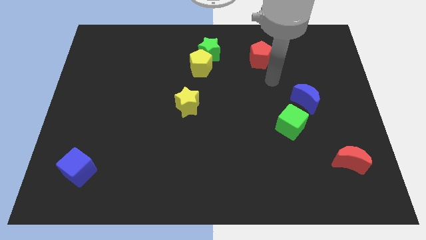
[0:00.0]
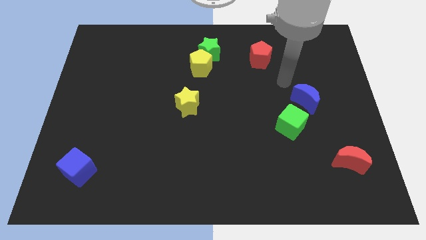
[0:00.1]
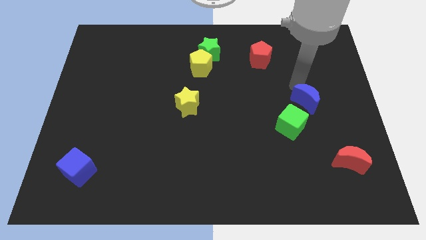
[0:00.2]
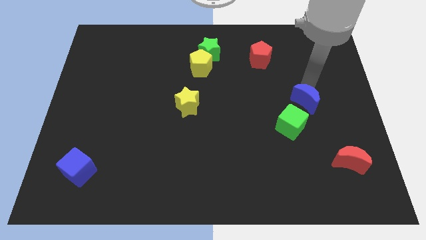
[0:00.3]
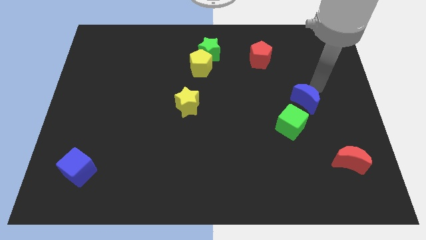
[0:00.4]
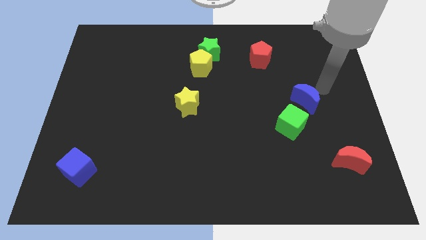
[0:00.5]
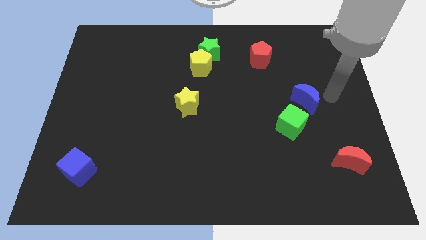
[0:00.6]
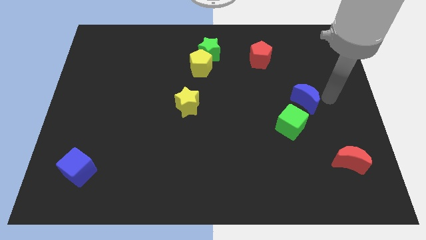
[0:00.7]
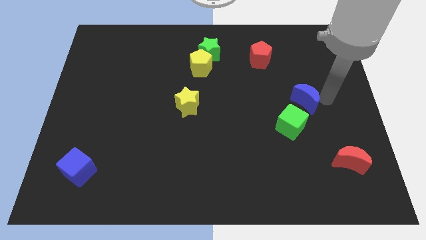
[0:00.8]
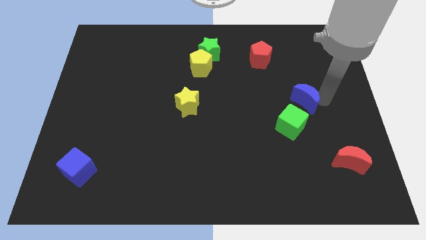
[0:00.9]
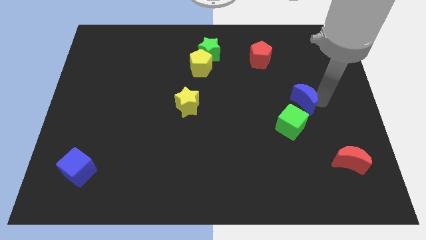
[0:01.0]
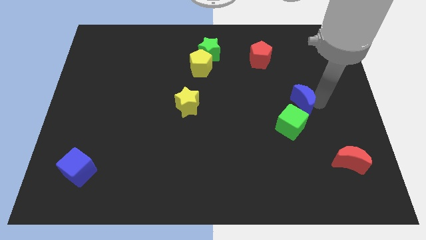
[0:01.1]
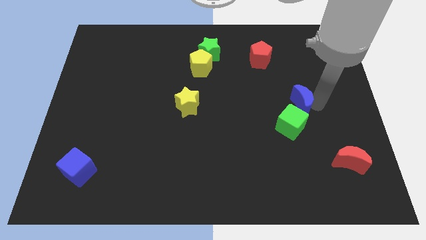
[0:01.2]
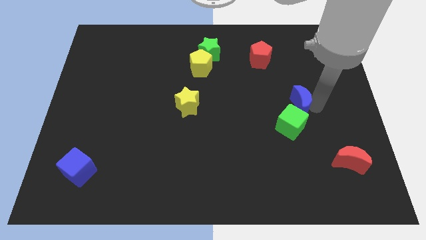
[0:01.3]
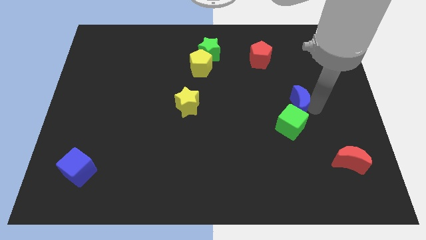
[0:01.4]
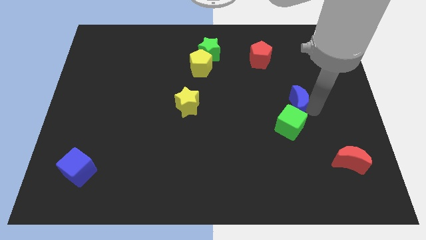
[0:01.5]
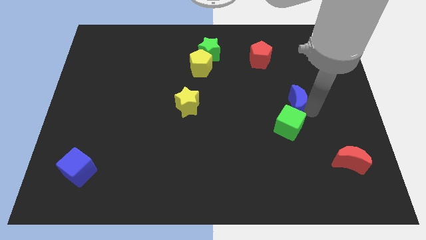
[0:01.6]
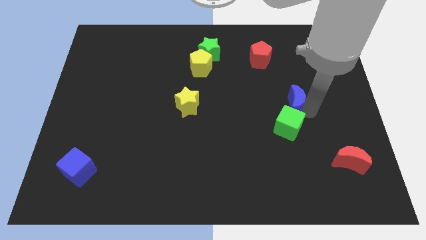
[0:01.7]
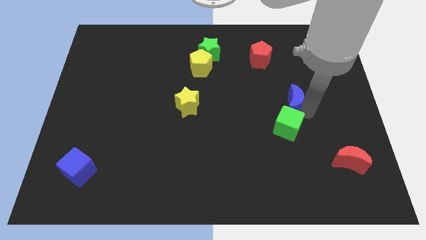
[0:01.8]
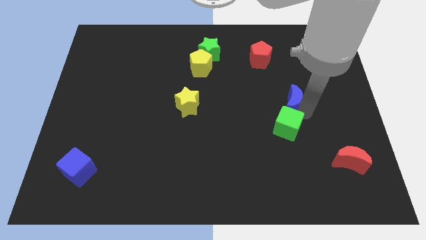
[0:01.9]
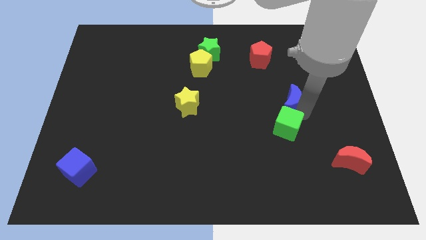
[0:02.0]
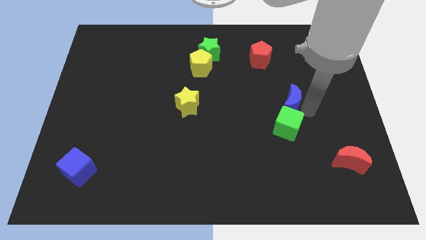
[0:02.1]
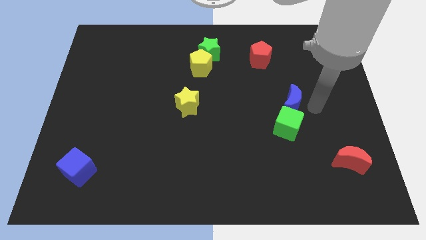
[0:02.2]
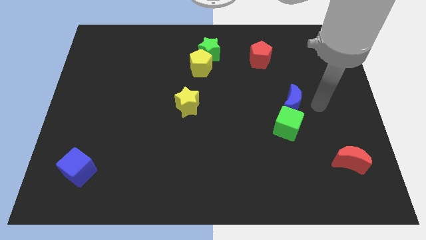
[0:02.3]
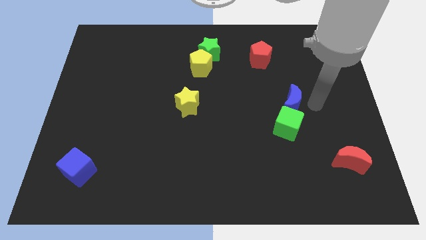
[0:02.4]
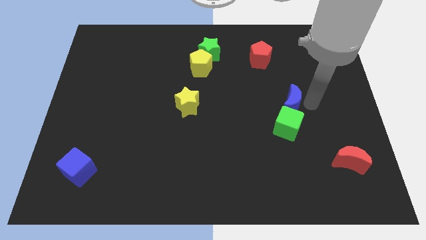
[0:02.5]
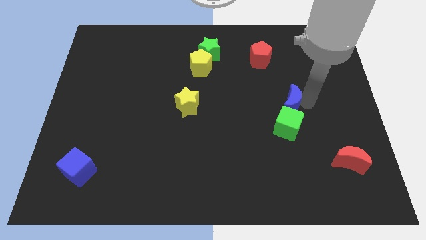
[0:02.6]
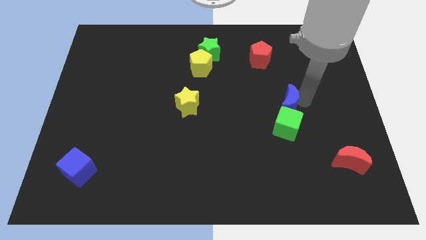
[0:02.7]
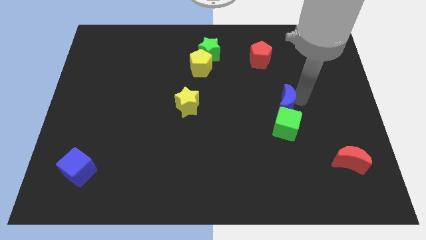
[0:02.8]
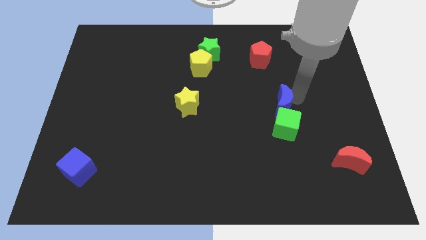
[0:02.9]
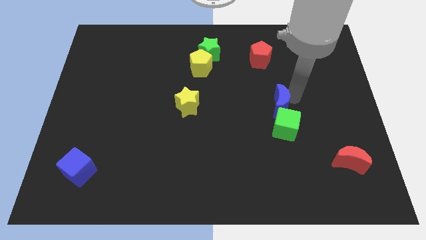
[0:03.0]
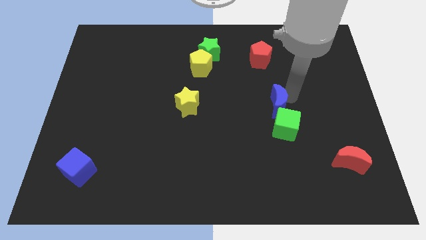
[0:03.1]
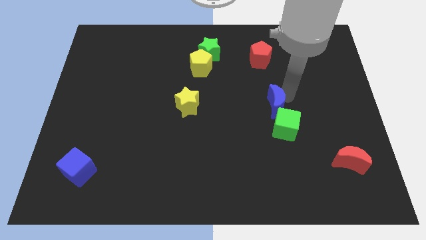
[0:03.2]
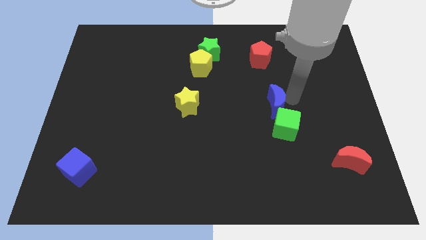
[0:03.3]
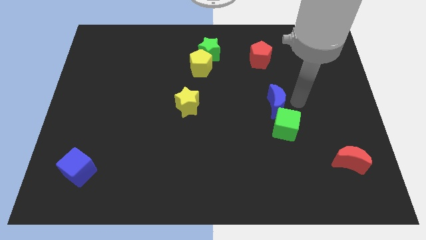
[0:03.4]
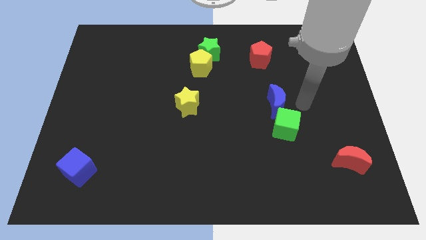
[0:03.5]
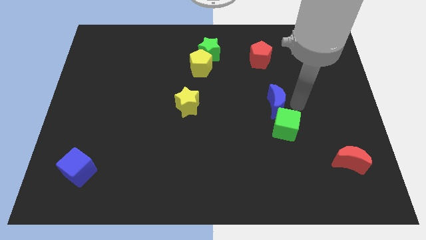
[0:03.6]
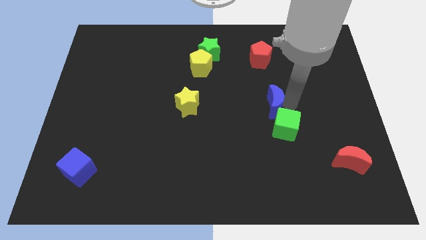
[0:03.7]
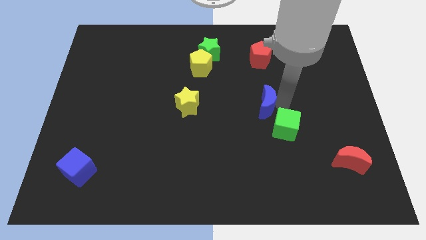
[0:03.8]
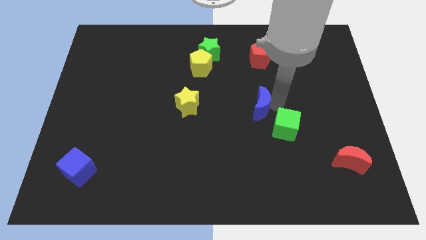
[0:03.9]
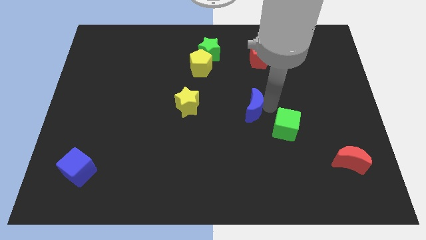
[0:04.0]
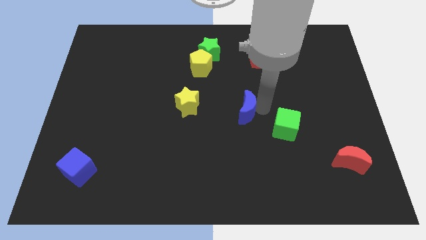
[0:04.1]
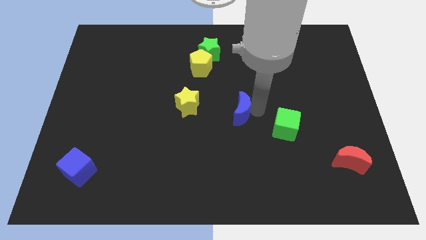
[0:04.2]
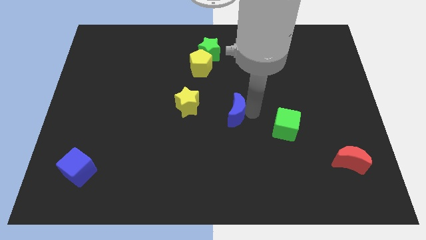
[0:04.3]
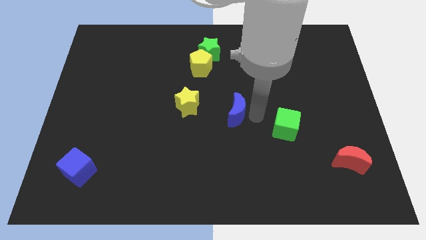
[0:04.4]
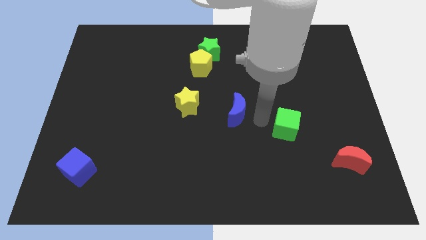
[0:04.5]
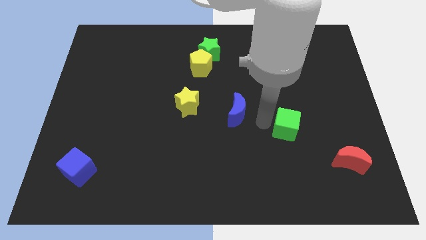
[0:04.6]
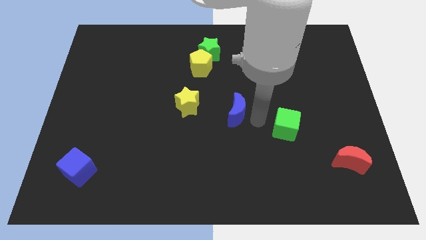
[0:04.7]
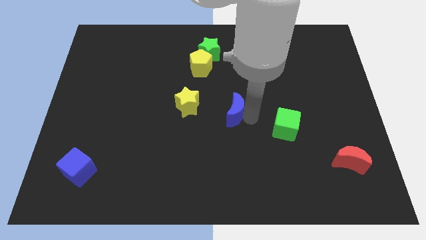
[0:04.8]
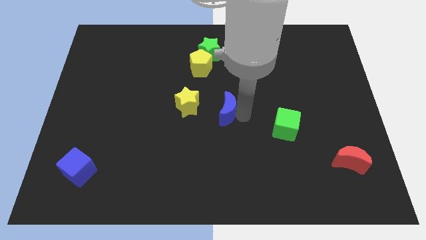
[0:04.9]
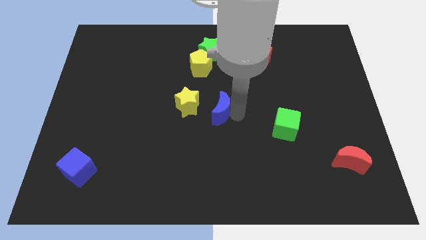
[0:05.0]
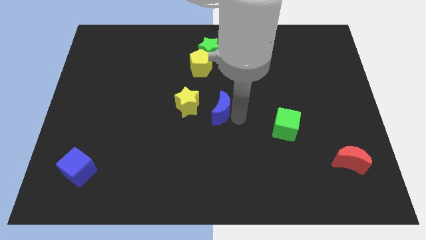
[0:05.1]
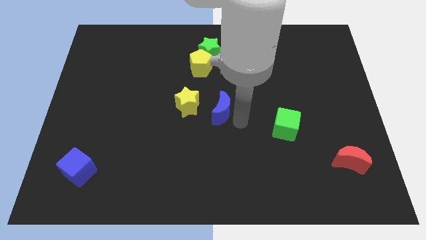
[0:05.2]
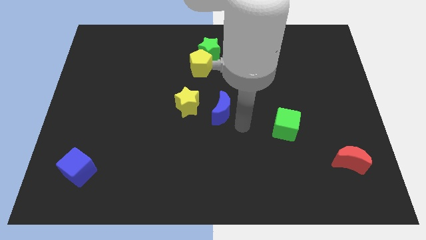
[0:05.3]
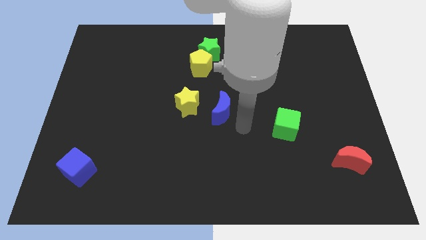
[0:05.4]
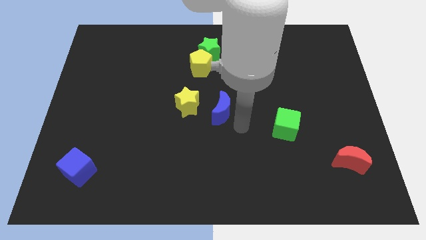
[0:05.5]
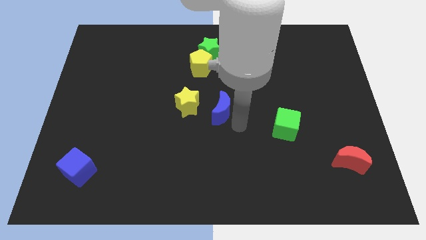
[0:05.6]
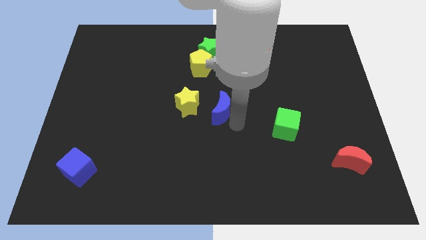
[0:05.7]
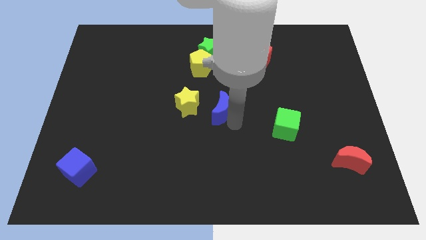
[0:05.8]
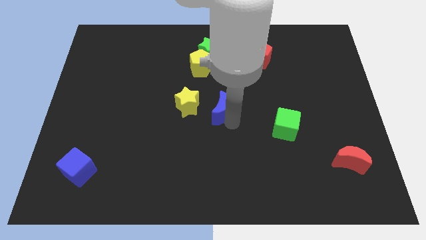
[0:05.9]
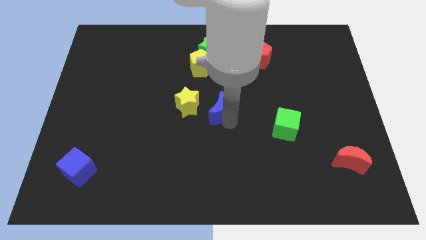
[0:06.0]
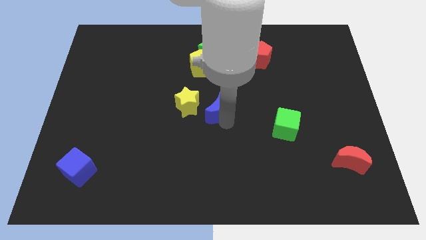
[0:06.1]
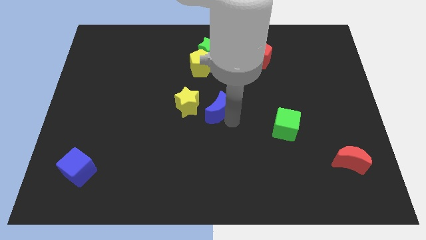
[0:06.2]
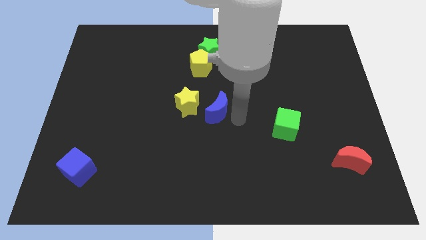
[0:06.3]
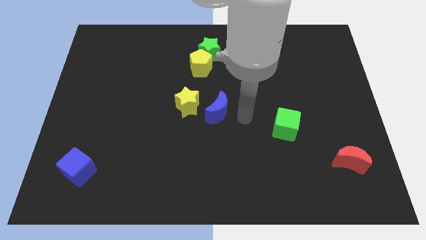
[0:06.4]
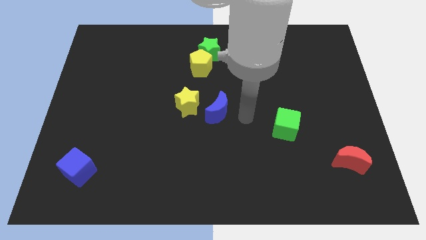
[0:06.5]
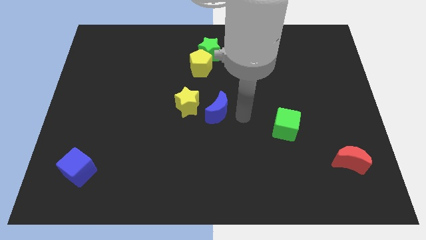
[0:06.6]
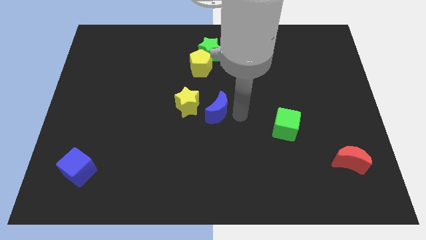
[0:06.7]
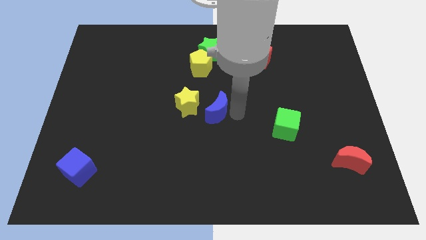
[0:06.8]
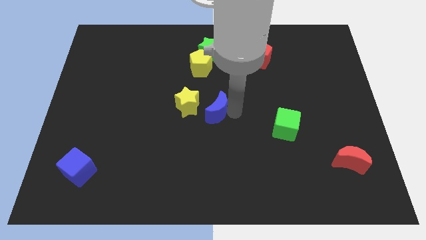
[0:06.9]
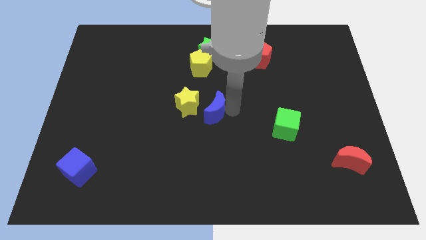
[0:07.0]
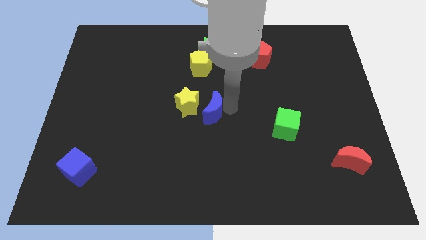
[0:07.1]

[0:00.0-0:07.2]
move the blue moon to the yellow star
